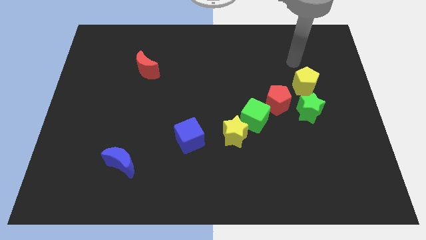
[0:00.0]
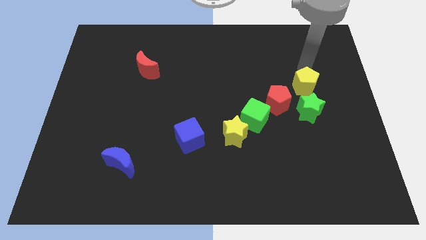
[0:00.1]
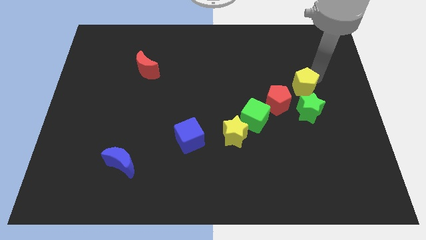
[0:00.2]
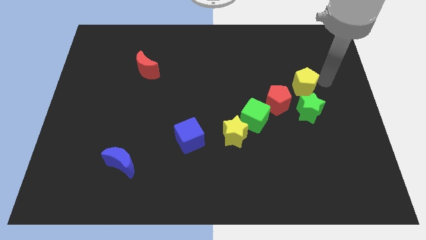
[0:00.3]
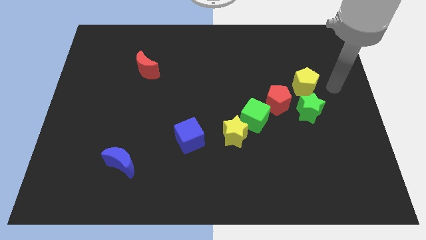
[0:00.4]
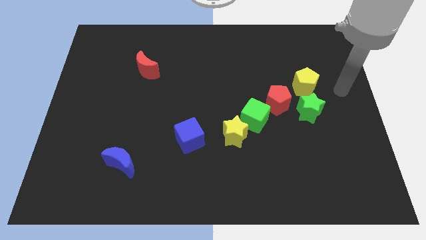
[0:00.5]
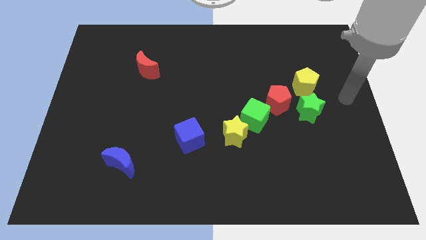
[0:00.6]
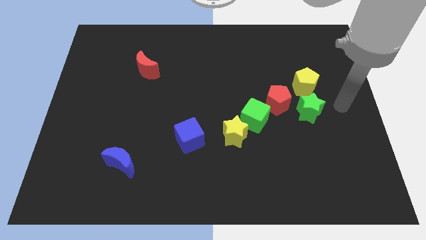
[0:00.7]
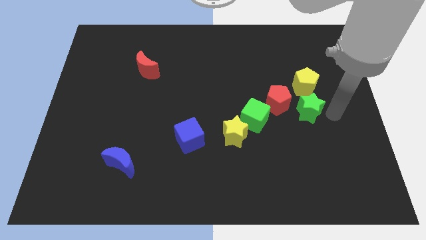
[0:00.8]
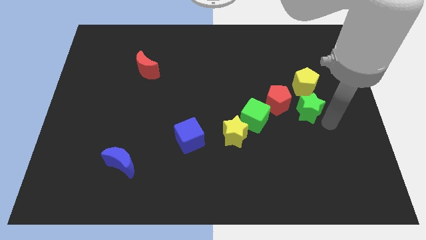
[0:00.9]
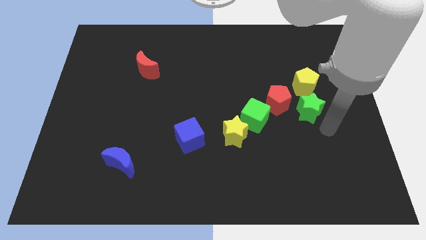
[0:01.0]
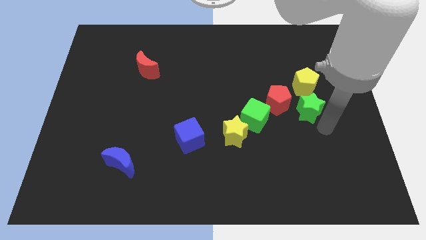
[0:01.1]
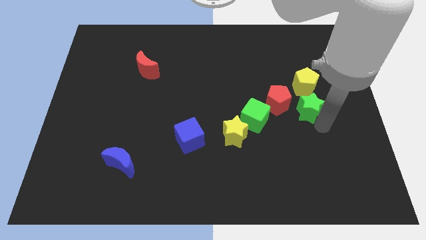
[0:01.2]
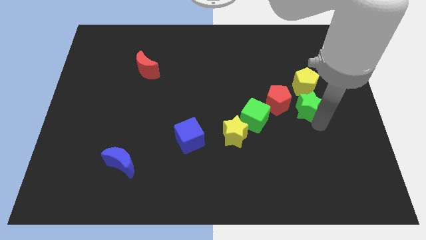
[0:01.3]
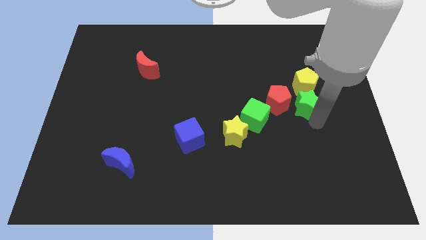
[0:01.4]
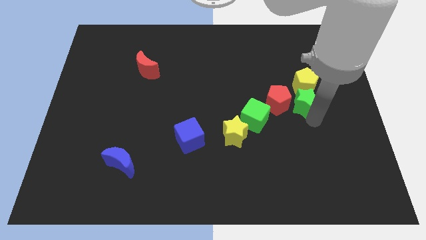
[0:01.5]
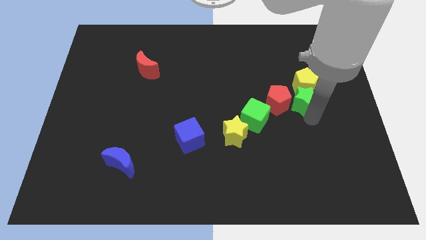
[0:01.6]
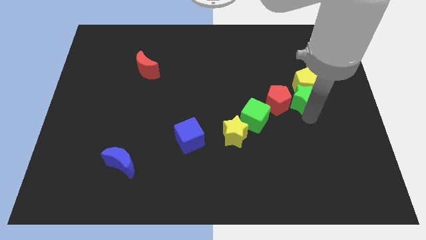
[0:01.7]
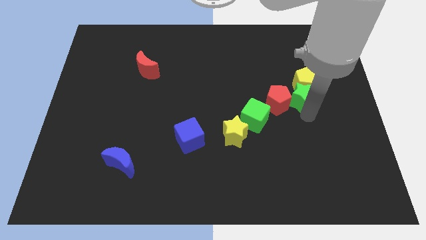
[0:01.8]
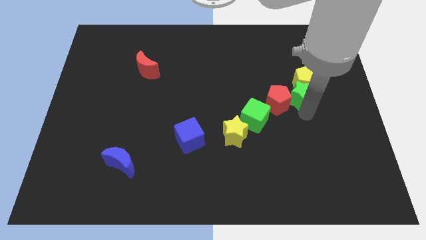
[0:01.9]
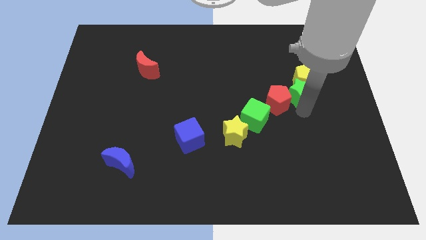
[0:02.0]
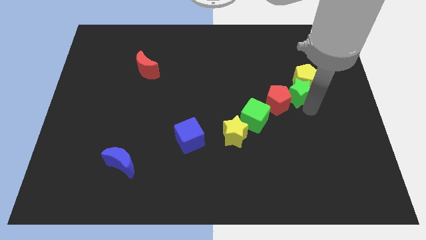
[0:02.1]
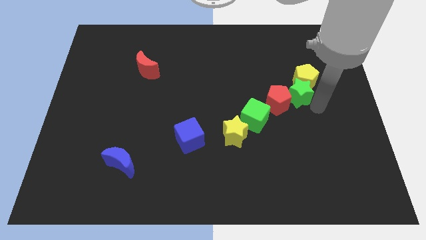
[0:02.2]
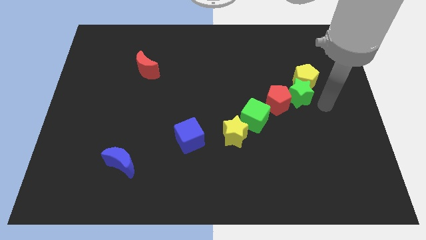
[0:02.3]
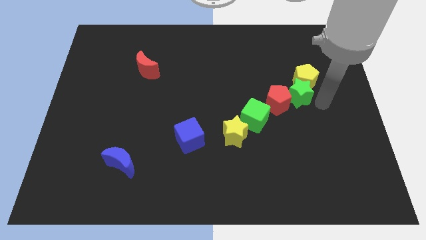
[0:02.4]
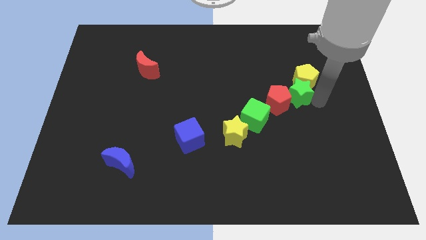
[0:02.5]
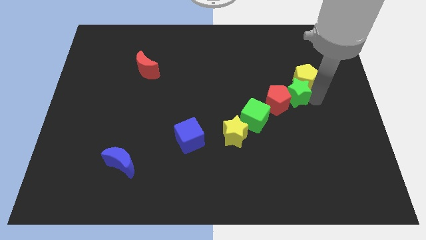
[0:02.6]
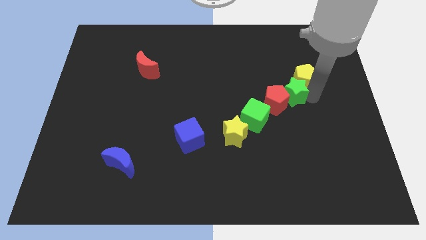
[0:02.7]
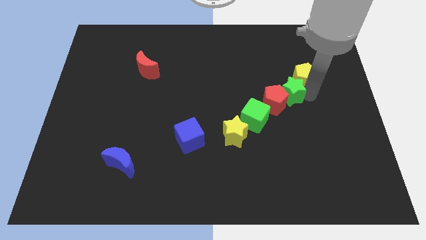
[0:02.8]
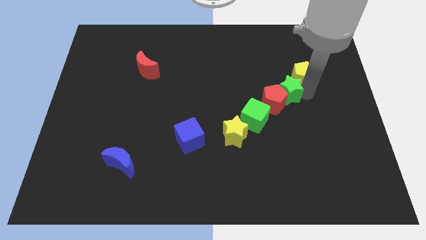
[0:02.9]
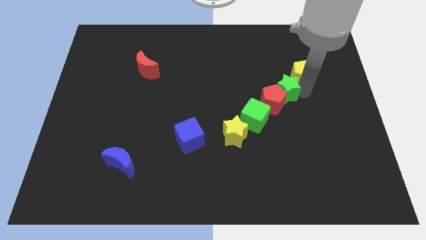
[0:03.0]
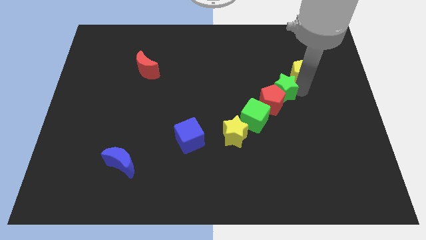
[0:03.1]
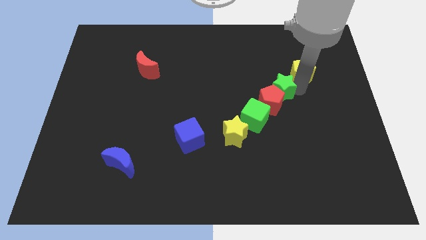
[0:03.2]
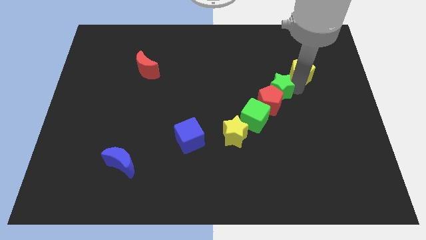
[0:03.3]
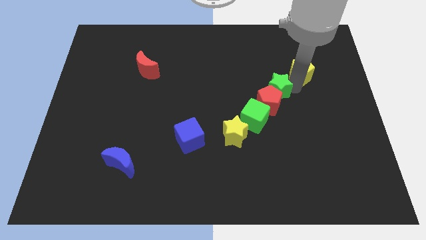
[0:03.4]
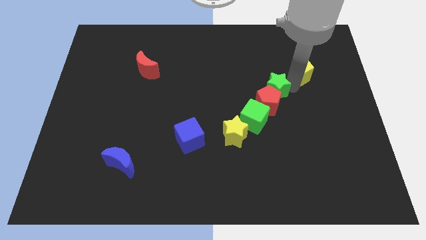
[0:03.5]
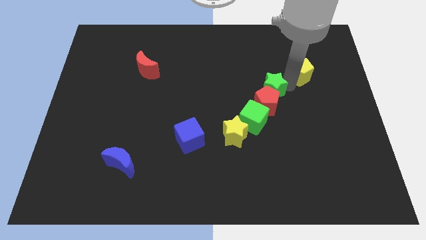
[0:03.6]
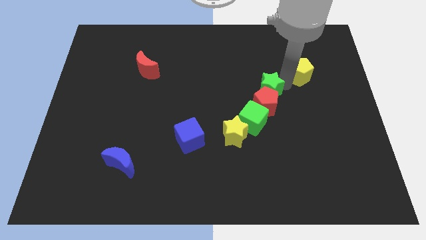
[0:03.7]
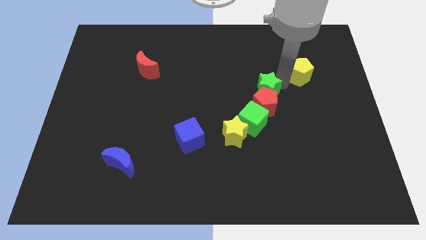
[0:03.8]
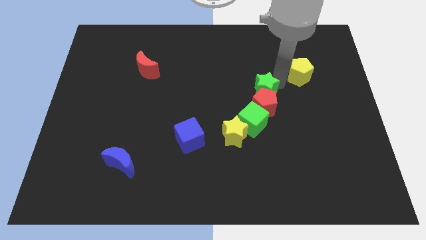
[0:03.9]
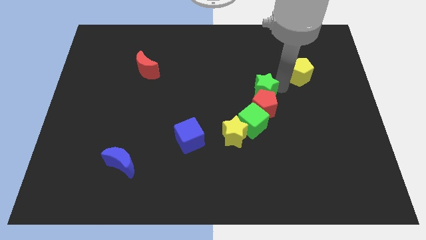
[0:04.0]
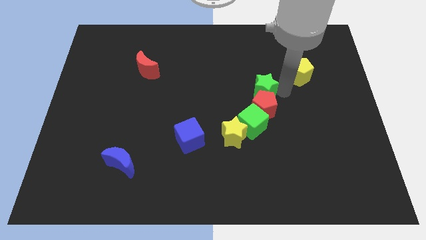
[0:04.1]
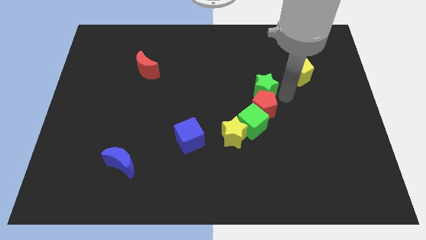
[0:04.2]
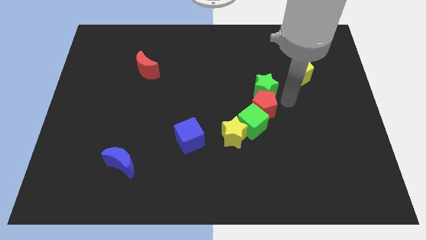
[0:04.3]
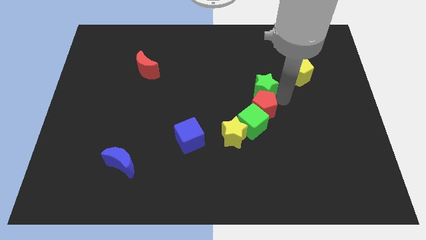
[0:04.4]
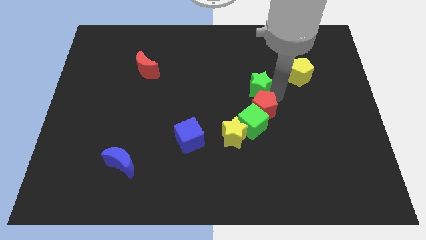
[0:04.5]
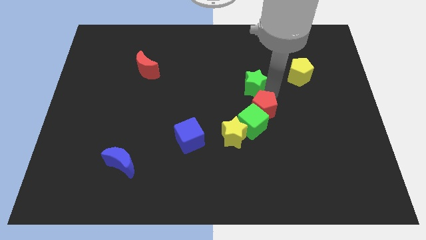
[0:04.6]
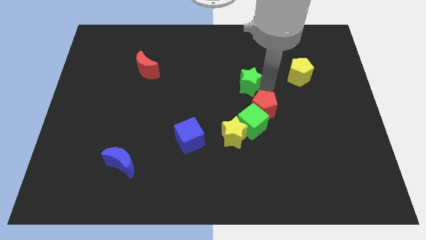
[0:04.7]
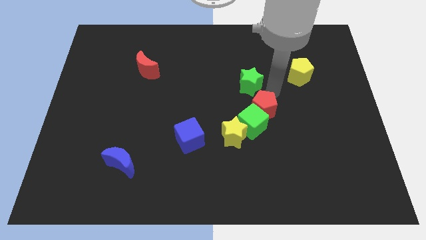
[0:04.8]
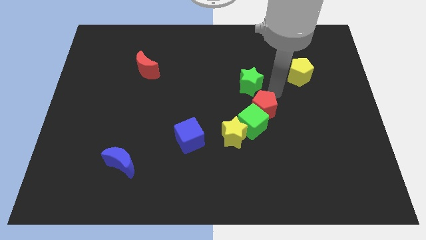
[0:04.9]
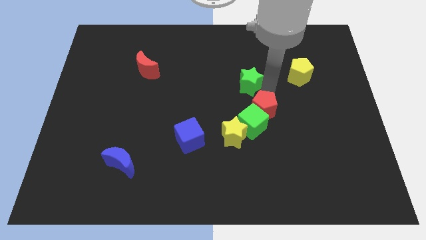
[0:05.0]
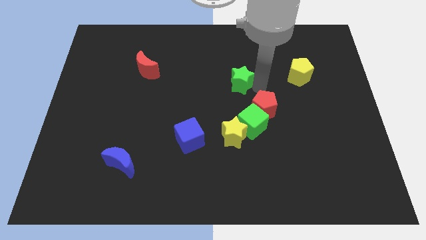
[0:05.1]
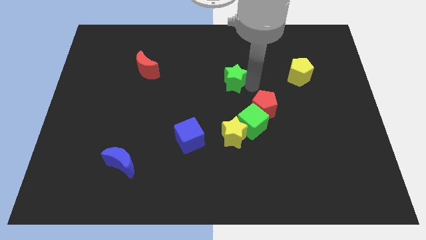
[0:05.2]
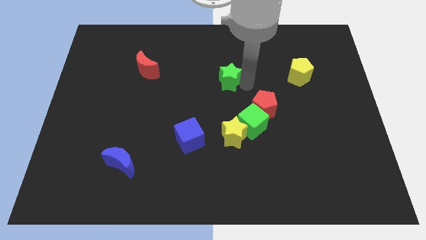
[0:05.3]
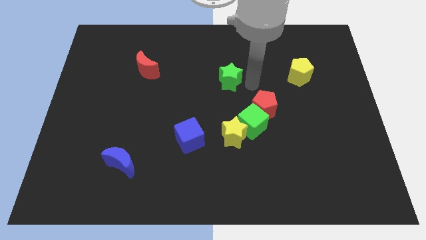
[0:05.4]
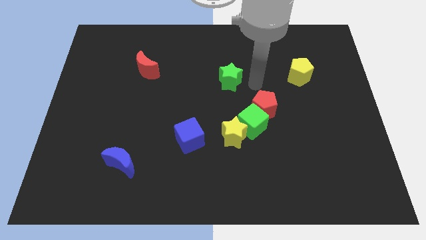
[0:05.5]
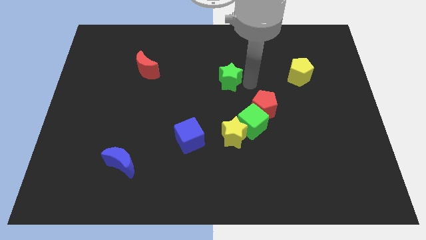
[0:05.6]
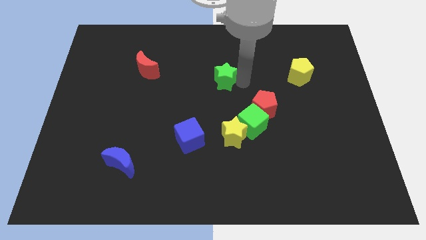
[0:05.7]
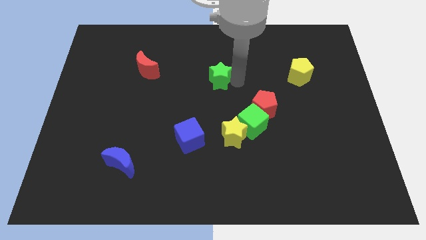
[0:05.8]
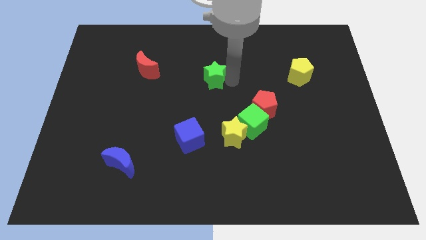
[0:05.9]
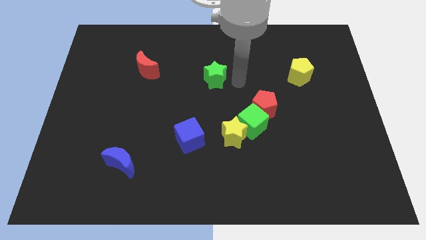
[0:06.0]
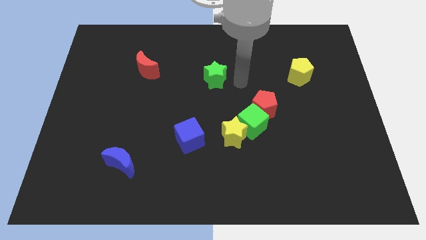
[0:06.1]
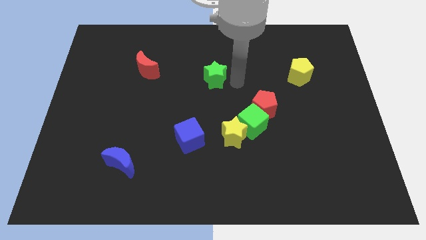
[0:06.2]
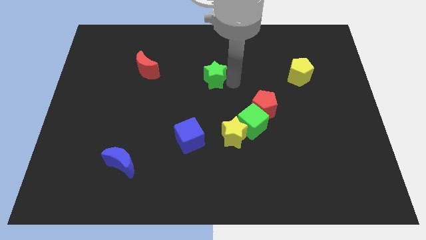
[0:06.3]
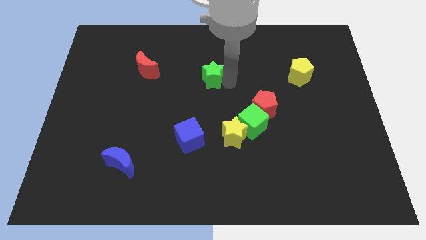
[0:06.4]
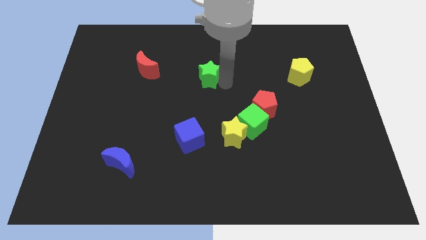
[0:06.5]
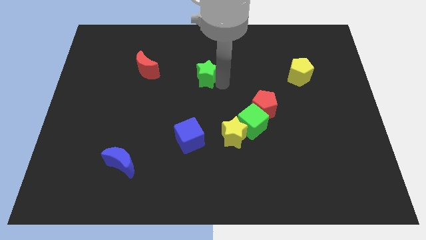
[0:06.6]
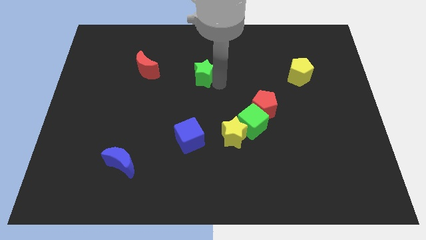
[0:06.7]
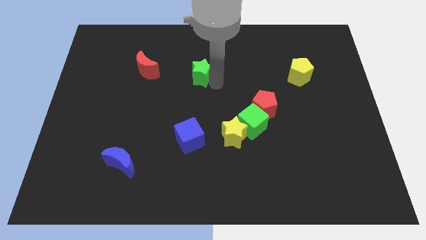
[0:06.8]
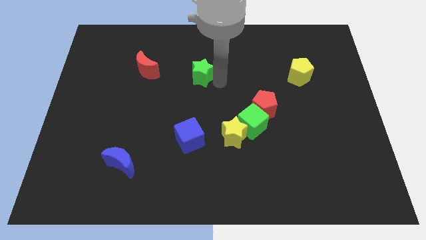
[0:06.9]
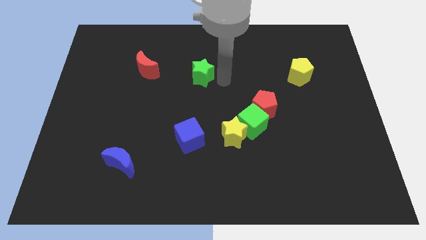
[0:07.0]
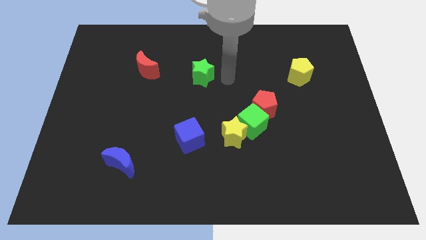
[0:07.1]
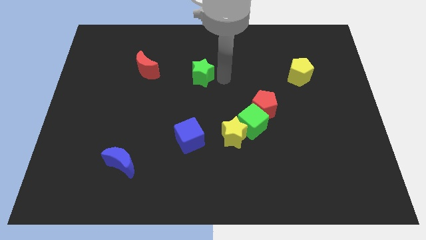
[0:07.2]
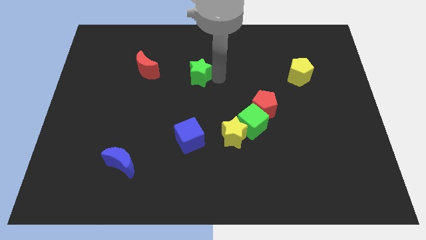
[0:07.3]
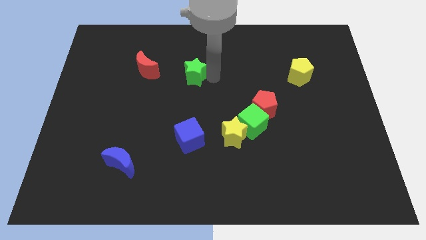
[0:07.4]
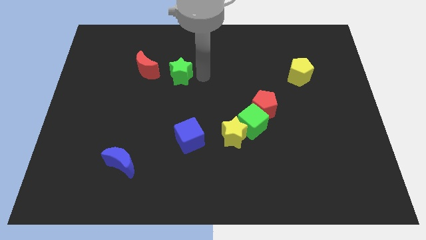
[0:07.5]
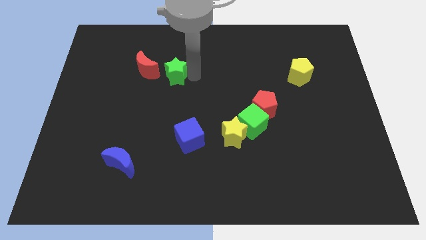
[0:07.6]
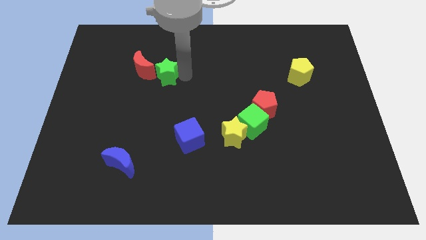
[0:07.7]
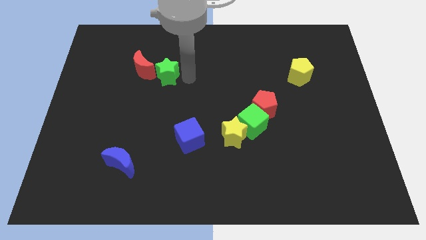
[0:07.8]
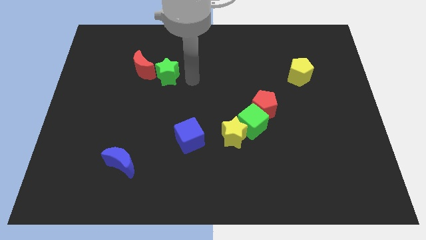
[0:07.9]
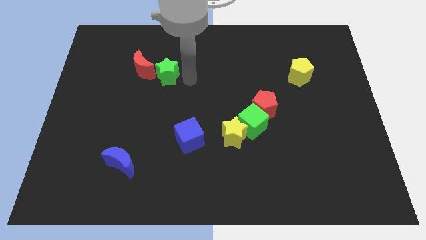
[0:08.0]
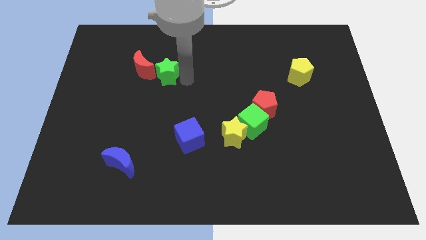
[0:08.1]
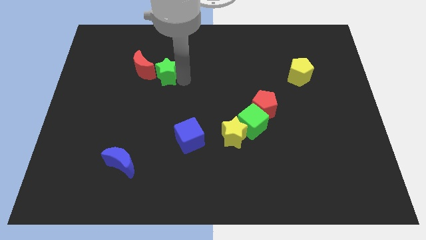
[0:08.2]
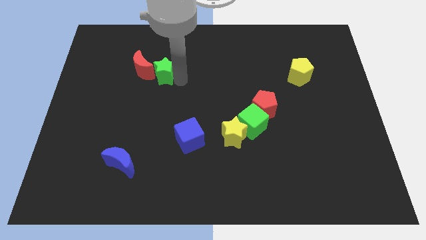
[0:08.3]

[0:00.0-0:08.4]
push the green star next to the red moon
